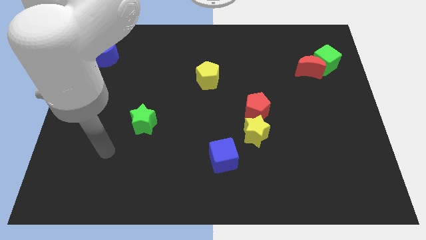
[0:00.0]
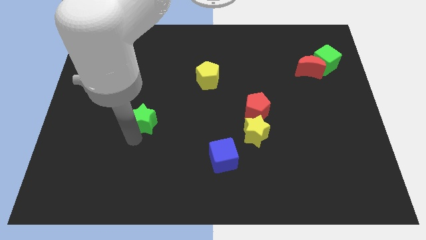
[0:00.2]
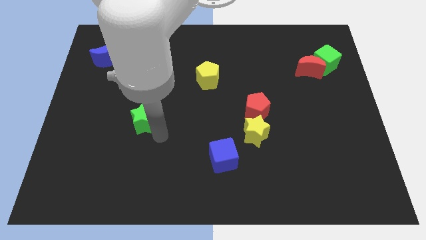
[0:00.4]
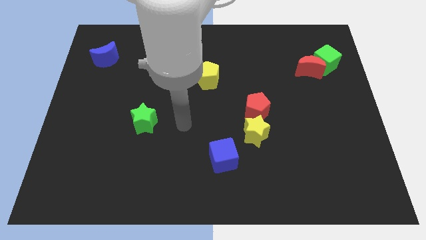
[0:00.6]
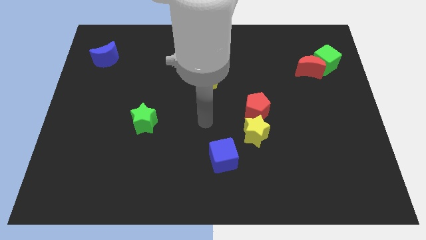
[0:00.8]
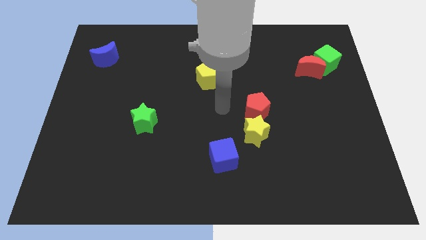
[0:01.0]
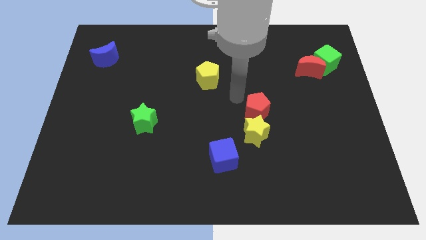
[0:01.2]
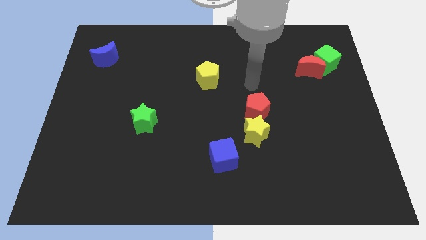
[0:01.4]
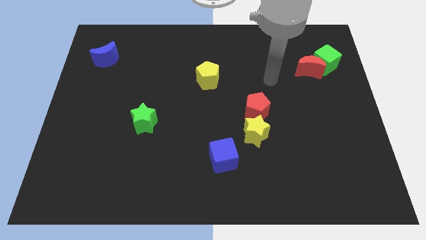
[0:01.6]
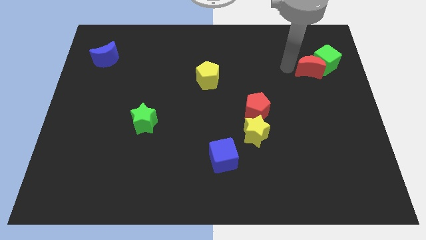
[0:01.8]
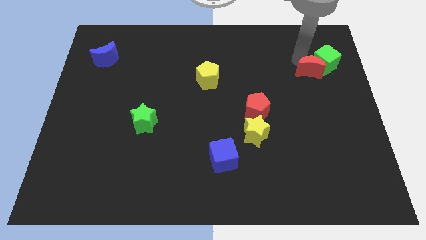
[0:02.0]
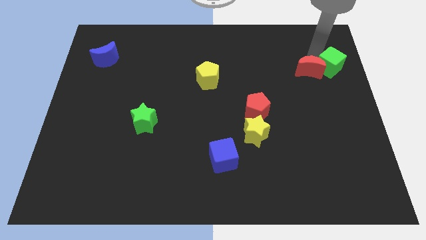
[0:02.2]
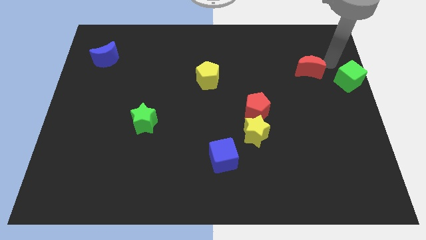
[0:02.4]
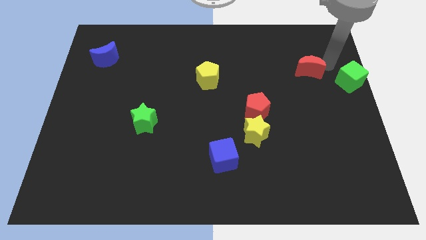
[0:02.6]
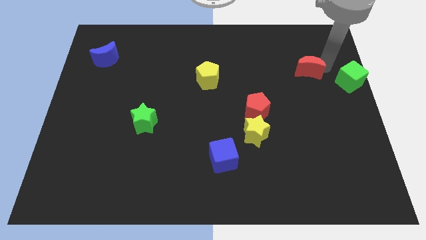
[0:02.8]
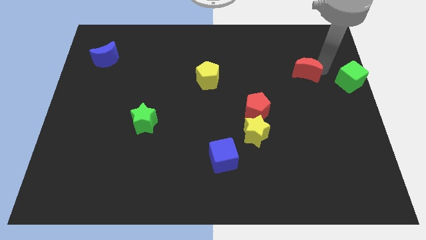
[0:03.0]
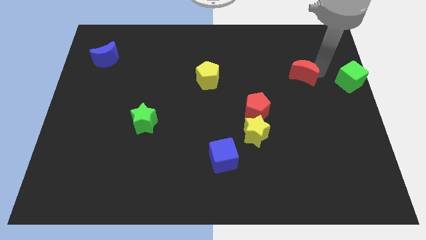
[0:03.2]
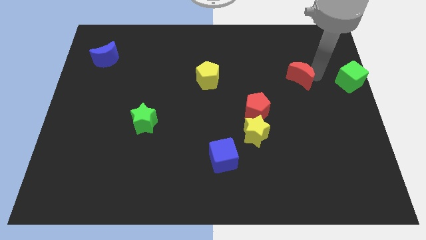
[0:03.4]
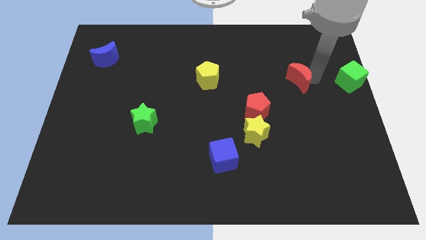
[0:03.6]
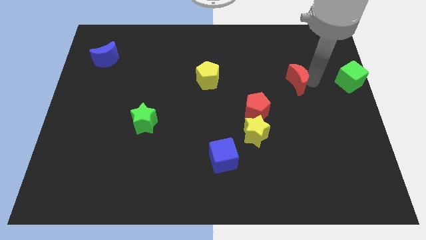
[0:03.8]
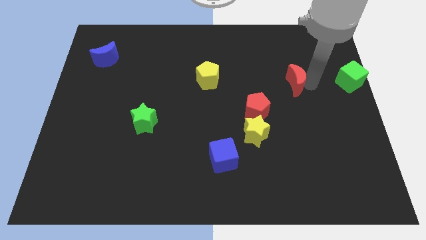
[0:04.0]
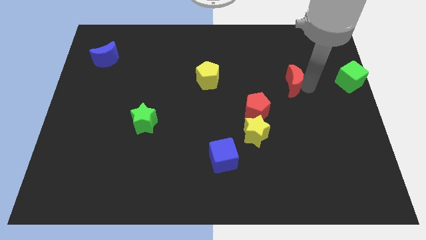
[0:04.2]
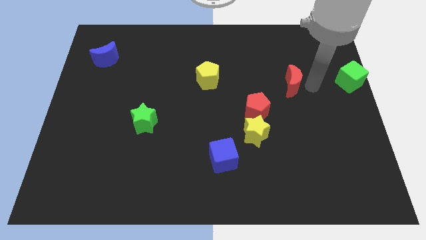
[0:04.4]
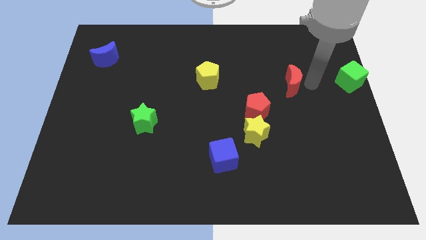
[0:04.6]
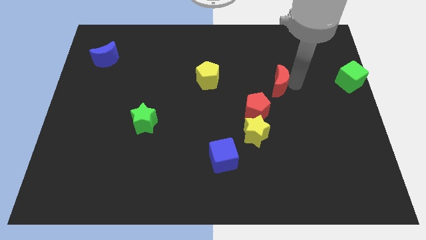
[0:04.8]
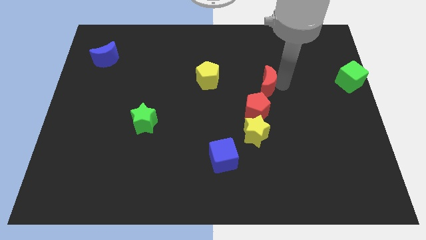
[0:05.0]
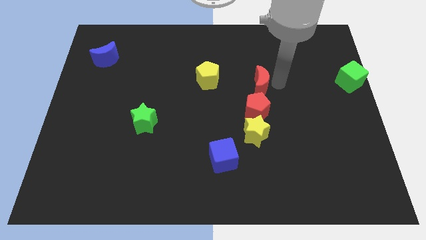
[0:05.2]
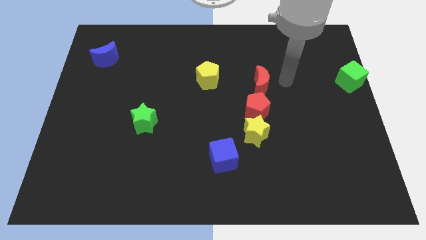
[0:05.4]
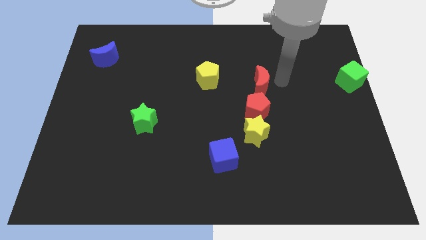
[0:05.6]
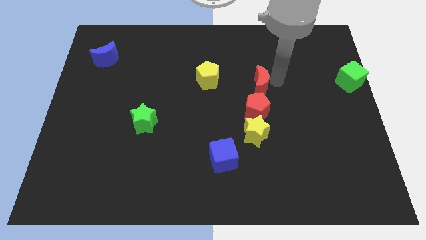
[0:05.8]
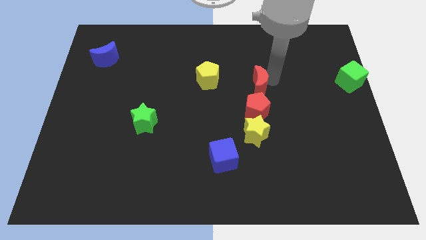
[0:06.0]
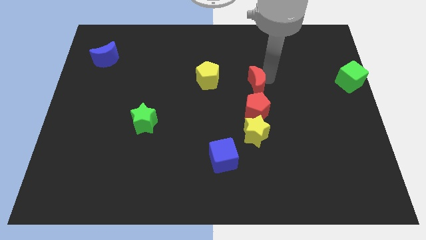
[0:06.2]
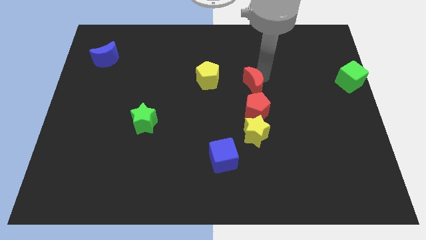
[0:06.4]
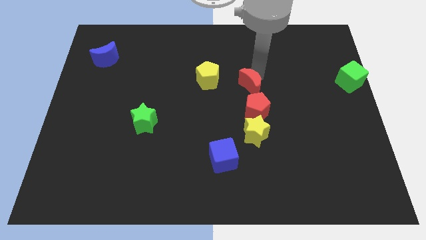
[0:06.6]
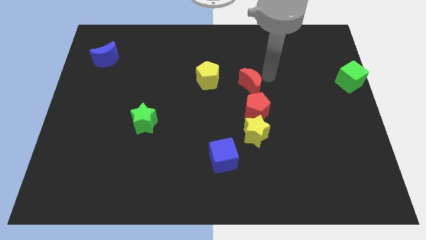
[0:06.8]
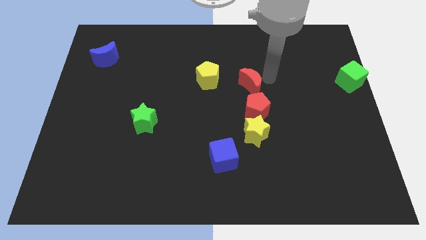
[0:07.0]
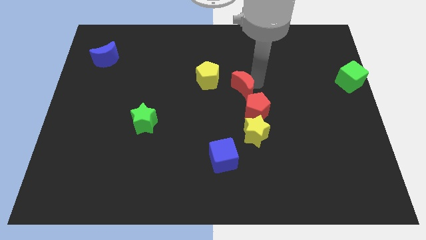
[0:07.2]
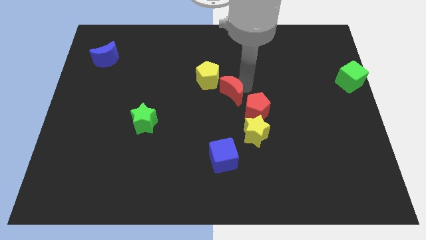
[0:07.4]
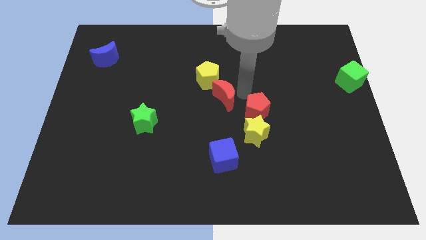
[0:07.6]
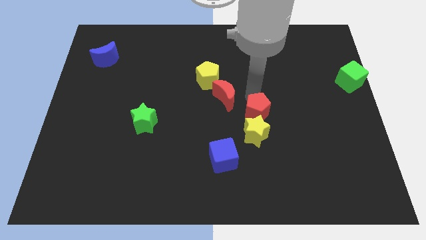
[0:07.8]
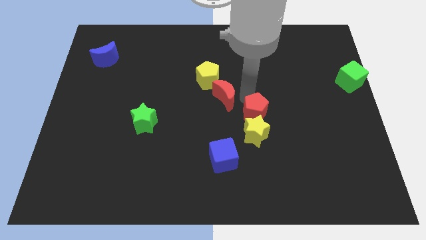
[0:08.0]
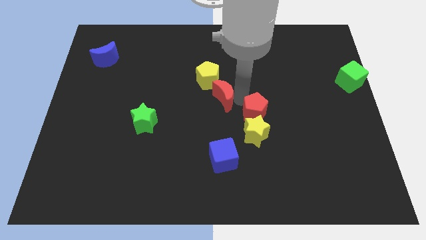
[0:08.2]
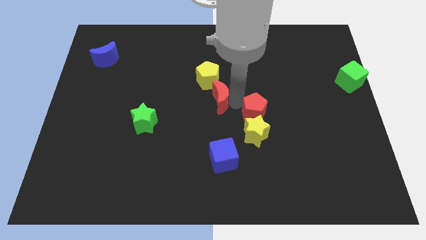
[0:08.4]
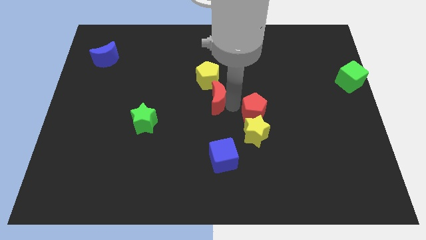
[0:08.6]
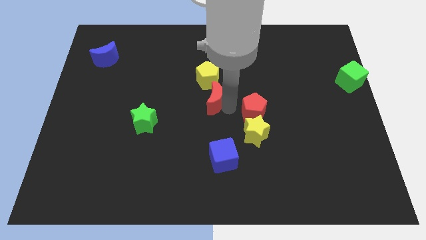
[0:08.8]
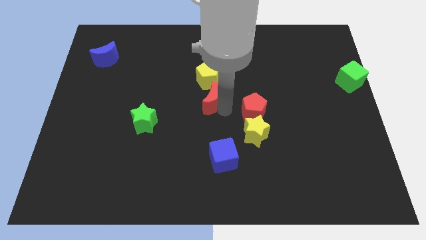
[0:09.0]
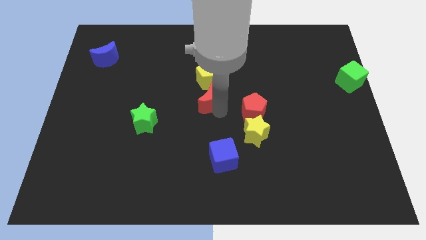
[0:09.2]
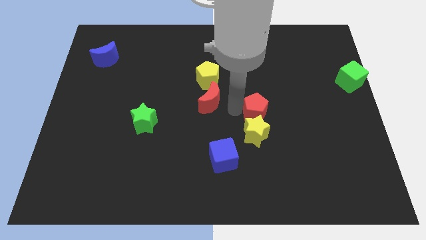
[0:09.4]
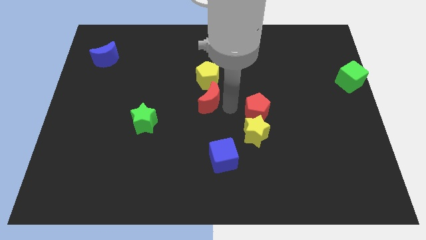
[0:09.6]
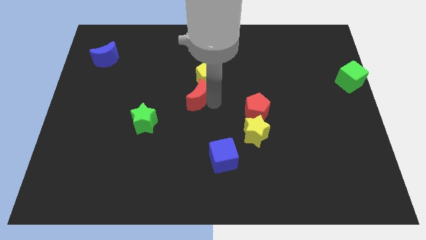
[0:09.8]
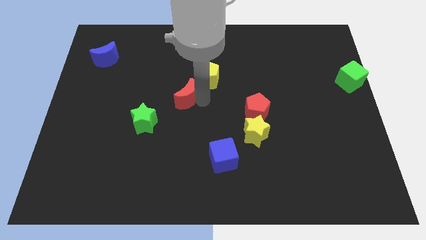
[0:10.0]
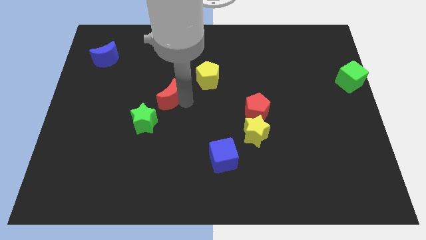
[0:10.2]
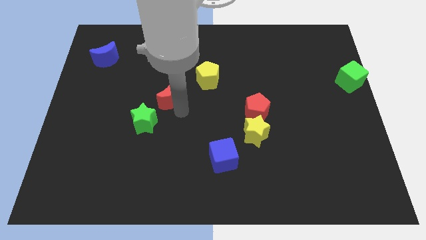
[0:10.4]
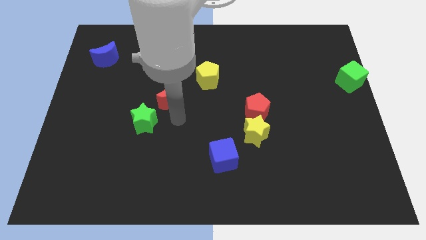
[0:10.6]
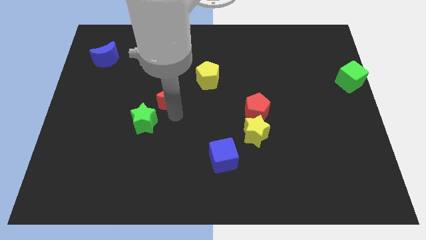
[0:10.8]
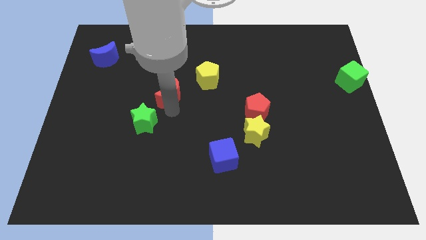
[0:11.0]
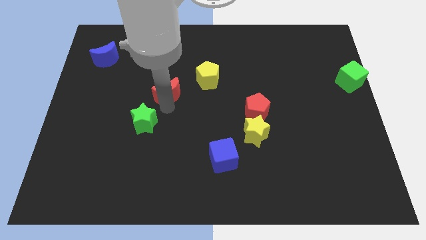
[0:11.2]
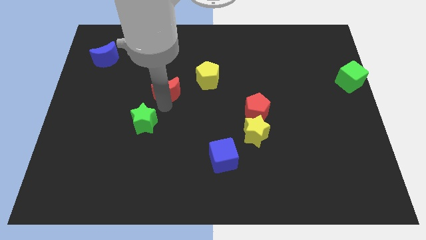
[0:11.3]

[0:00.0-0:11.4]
slide the red moon to the left of the yellow pentagon
